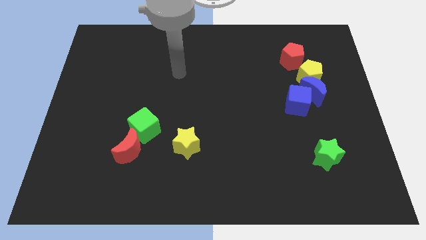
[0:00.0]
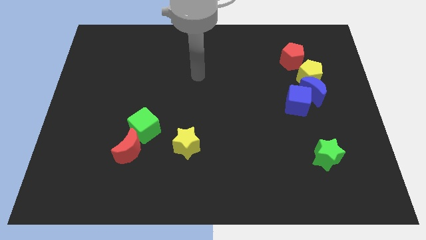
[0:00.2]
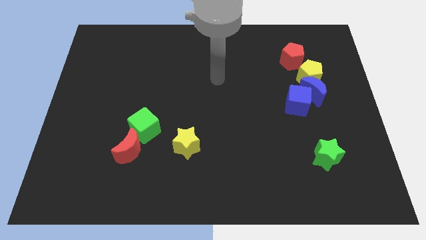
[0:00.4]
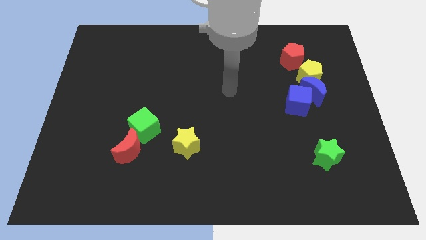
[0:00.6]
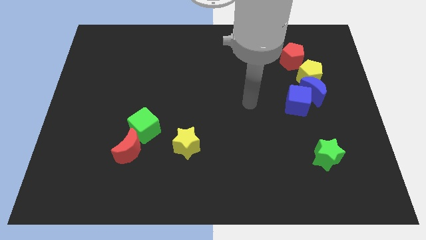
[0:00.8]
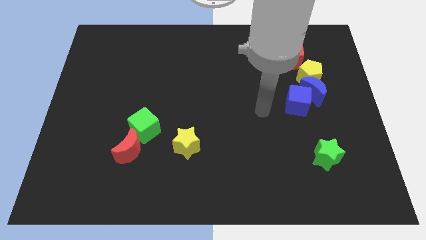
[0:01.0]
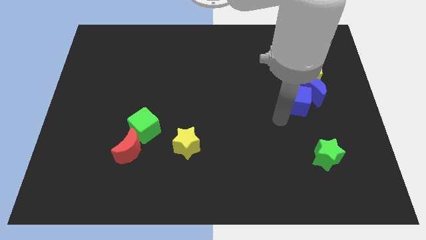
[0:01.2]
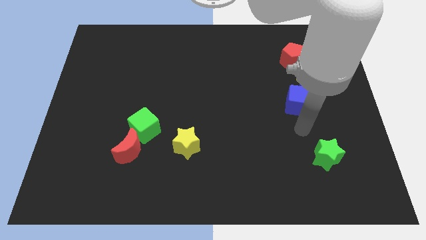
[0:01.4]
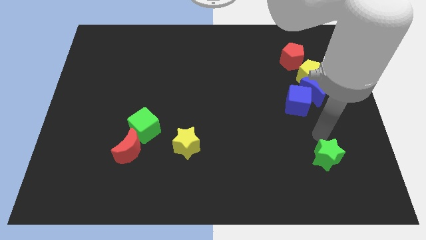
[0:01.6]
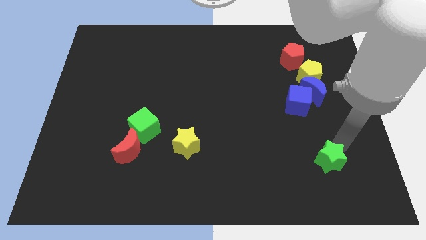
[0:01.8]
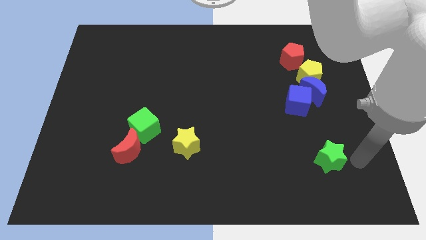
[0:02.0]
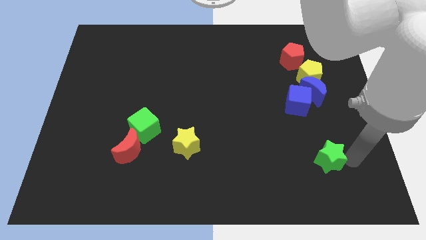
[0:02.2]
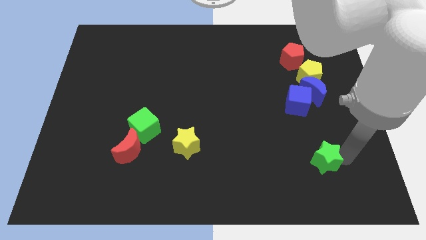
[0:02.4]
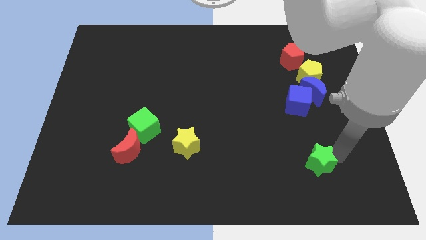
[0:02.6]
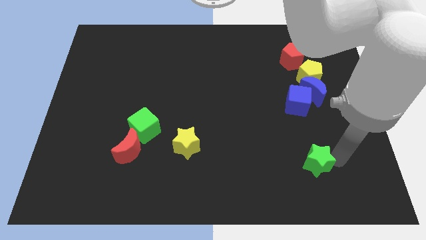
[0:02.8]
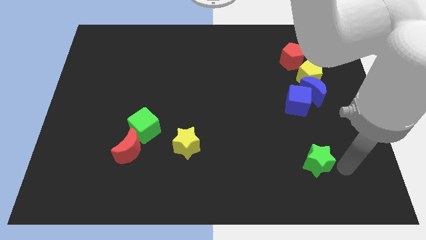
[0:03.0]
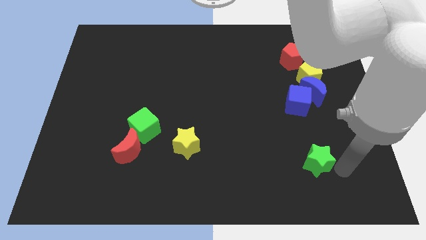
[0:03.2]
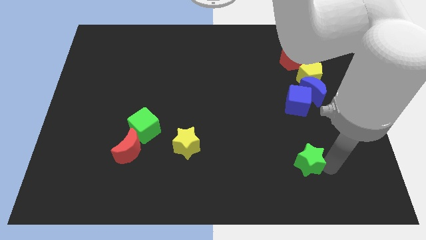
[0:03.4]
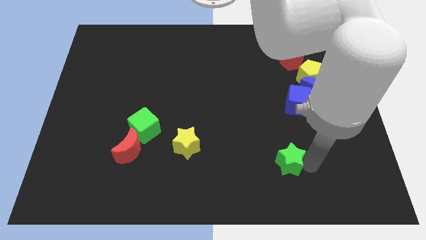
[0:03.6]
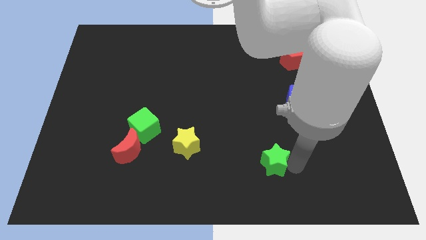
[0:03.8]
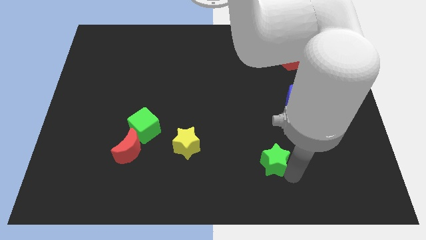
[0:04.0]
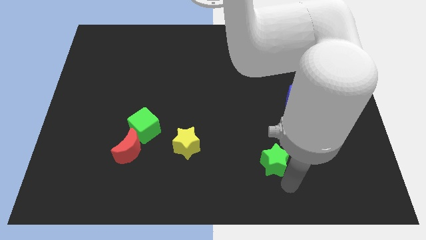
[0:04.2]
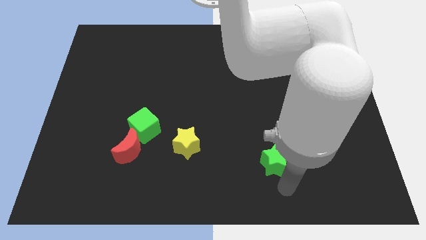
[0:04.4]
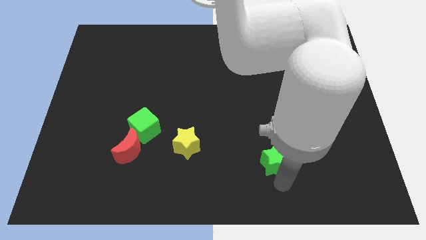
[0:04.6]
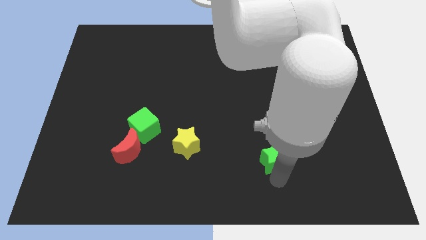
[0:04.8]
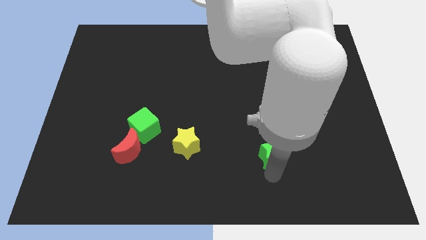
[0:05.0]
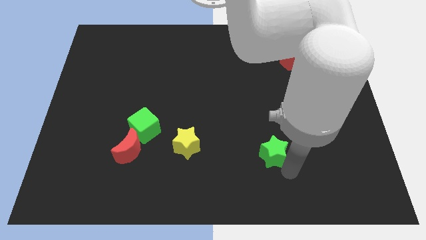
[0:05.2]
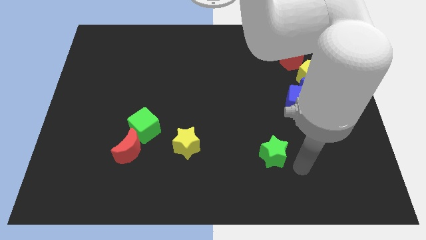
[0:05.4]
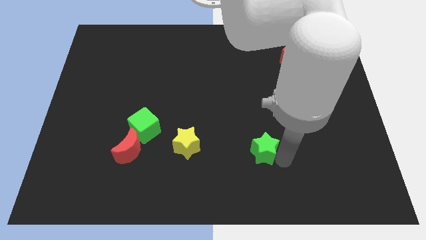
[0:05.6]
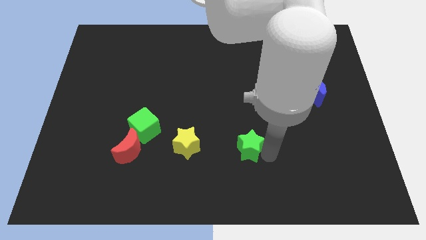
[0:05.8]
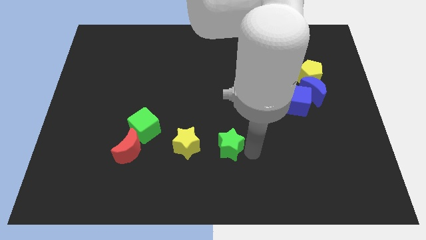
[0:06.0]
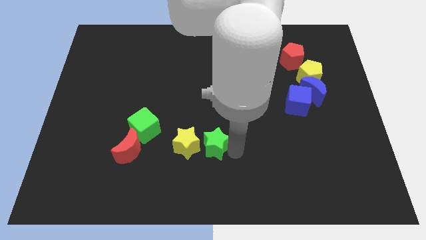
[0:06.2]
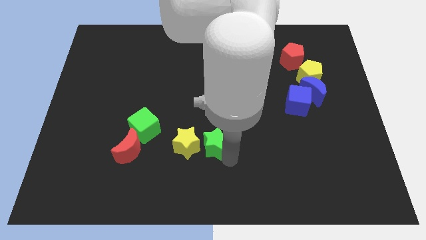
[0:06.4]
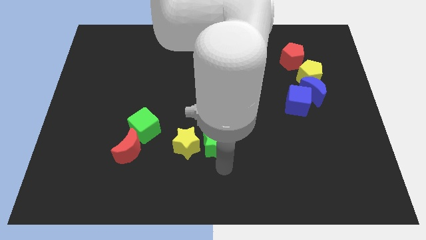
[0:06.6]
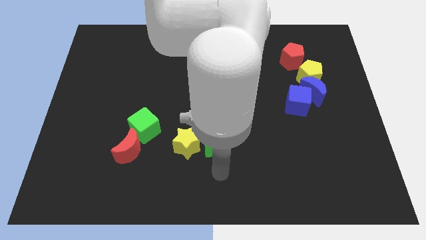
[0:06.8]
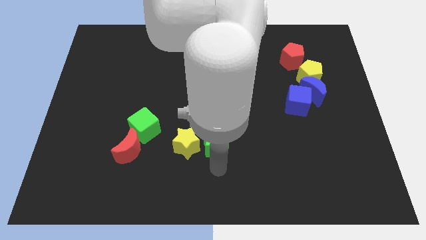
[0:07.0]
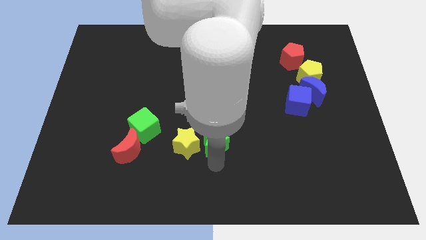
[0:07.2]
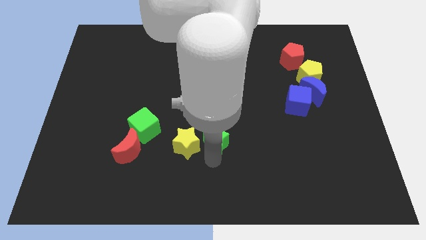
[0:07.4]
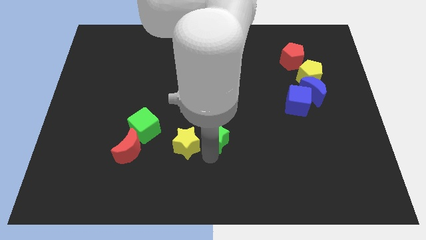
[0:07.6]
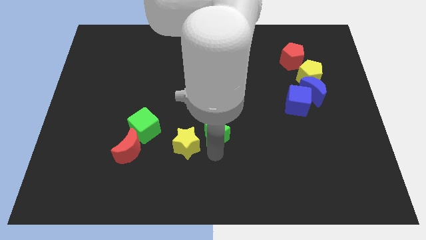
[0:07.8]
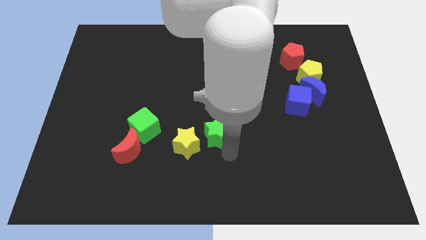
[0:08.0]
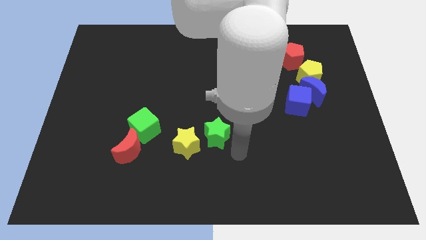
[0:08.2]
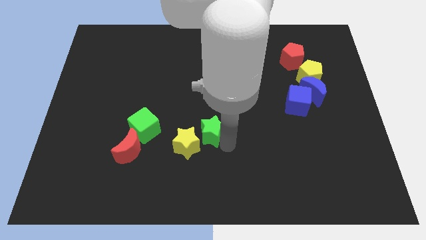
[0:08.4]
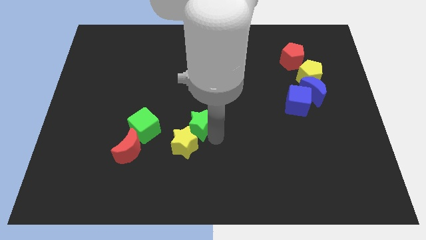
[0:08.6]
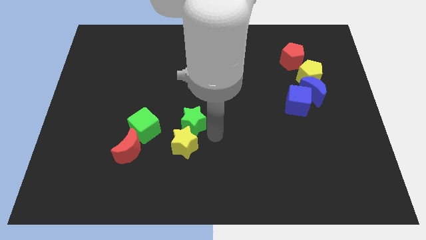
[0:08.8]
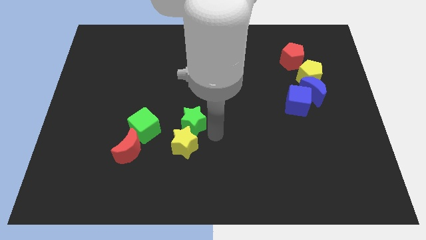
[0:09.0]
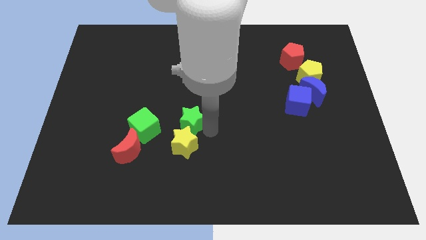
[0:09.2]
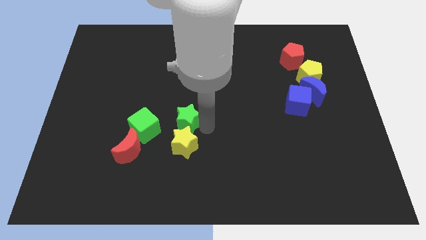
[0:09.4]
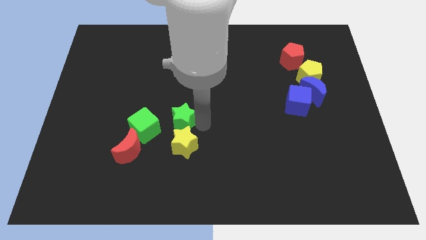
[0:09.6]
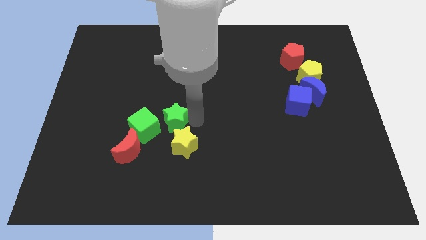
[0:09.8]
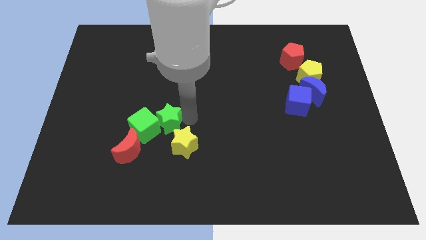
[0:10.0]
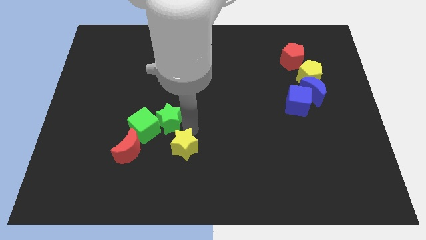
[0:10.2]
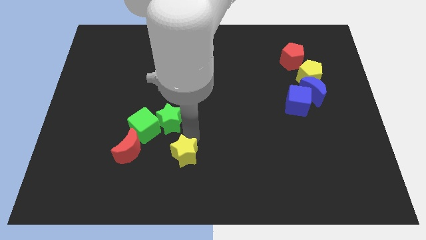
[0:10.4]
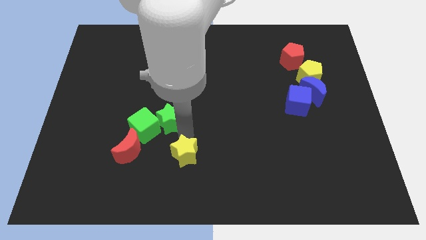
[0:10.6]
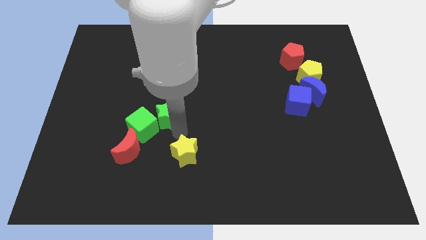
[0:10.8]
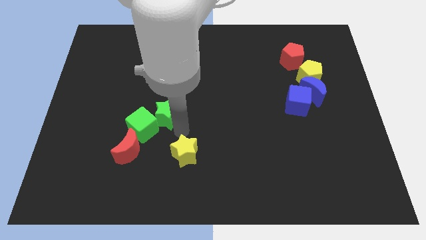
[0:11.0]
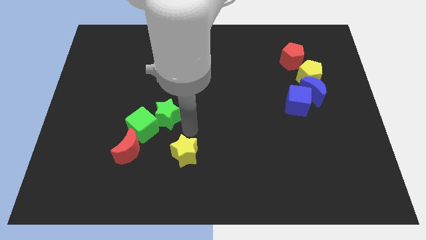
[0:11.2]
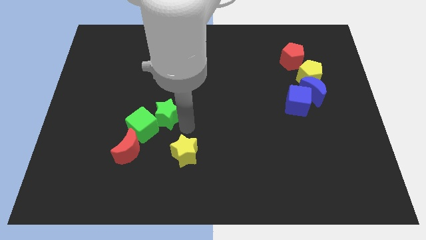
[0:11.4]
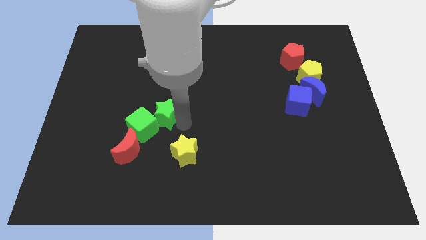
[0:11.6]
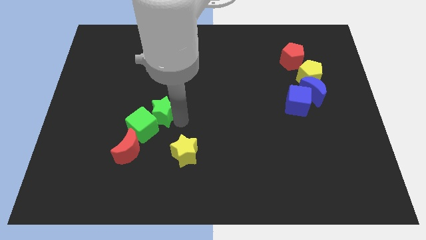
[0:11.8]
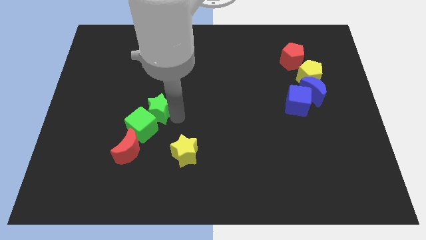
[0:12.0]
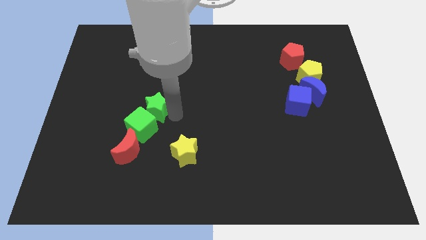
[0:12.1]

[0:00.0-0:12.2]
push the green star to the top side of the red moon

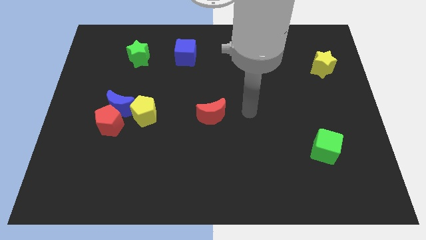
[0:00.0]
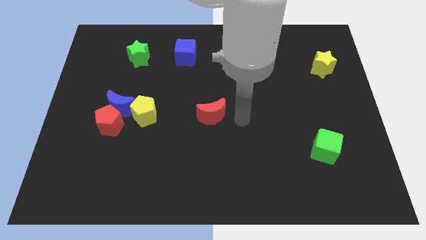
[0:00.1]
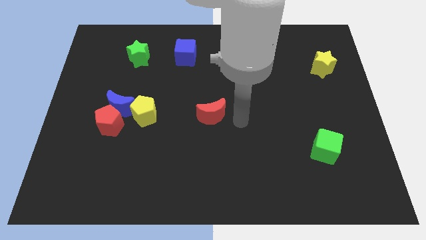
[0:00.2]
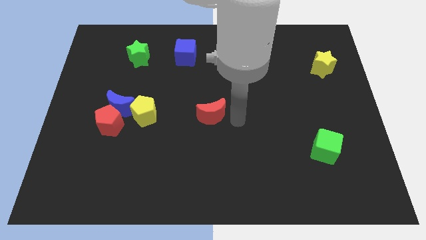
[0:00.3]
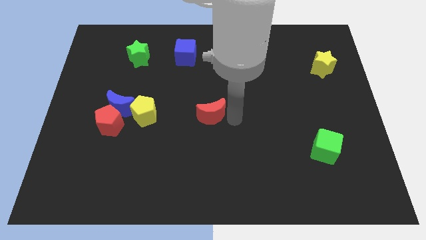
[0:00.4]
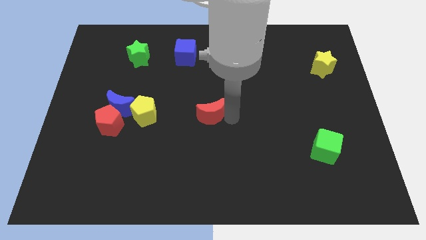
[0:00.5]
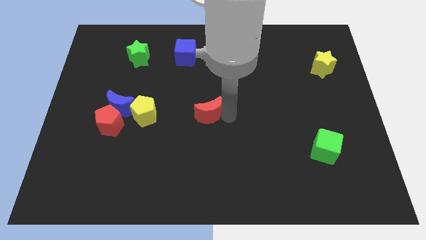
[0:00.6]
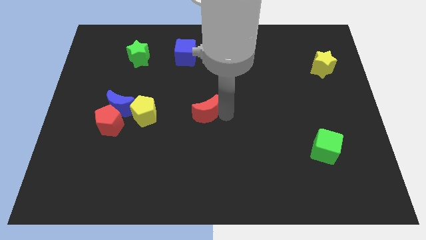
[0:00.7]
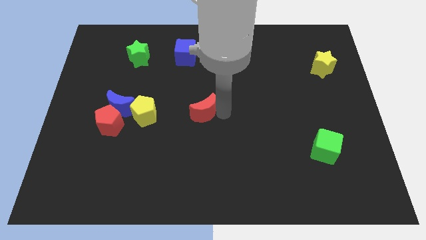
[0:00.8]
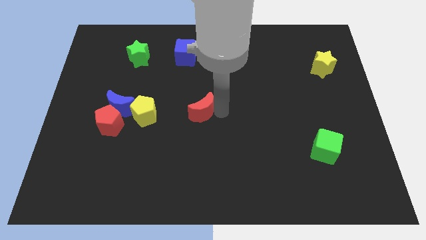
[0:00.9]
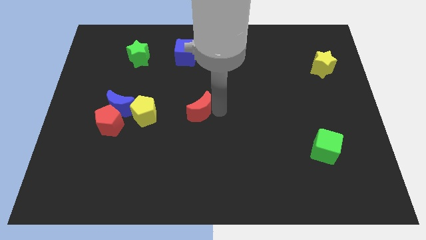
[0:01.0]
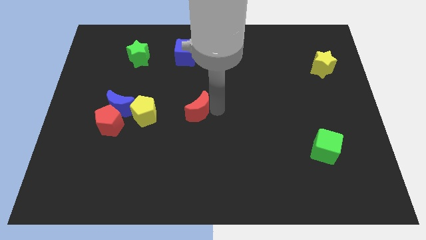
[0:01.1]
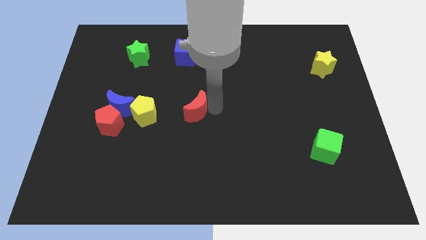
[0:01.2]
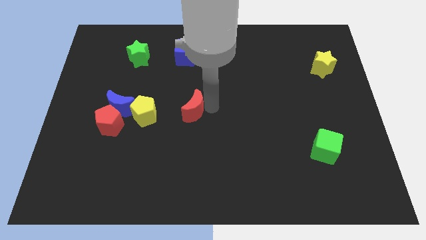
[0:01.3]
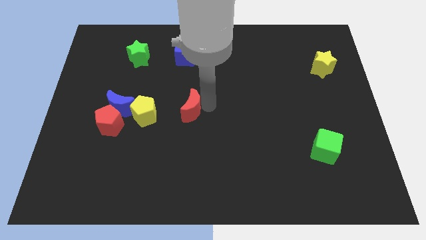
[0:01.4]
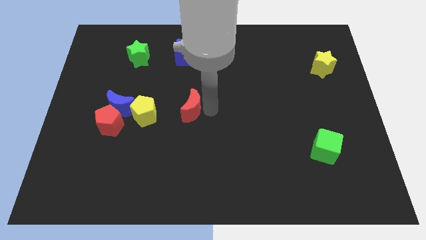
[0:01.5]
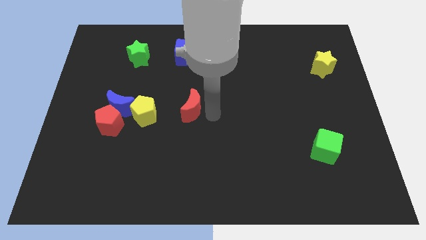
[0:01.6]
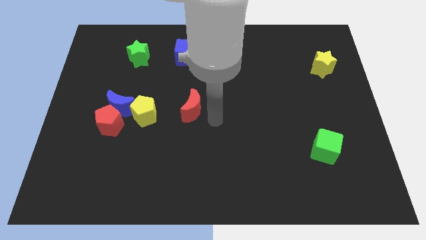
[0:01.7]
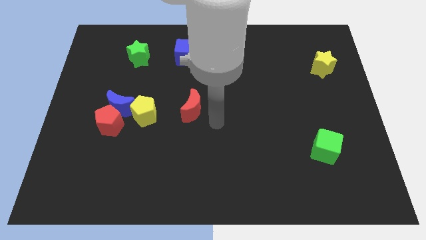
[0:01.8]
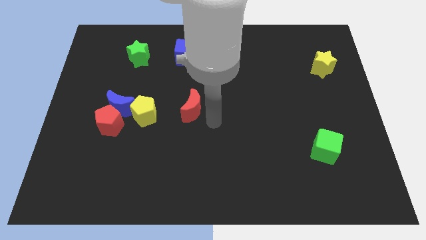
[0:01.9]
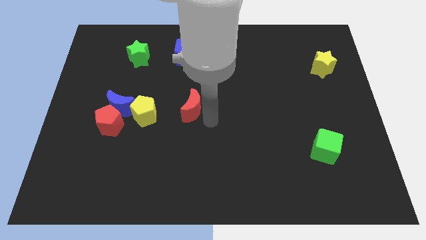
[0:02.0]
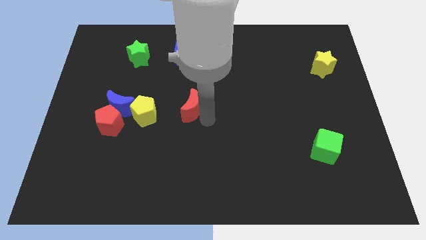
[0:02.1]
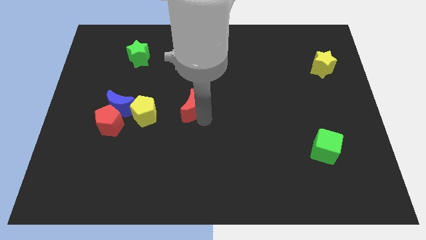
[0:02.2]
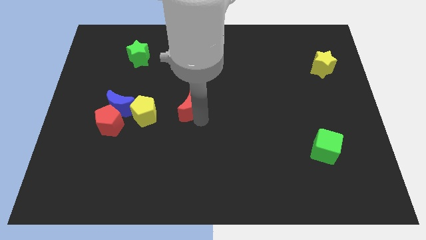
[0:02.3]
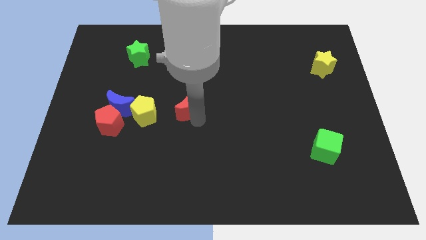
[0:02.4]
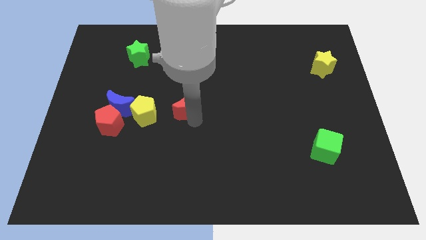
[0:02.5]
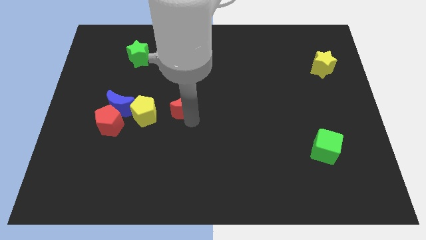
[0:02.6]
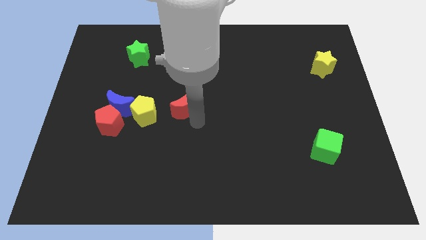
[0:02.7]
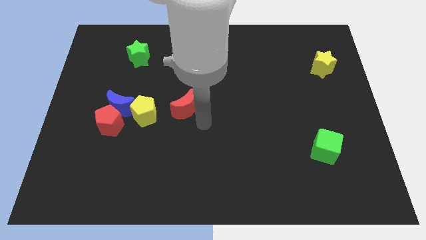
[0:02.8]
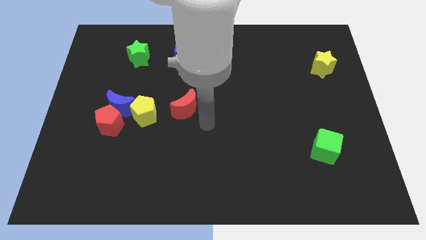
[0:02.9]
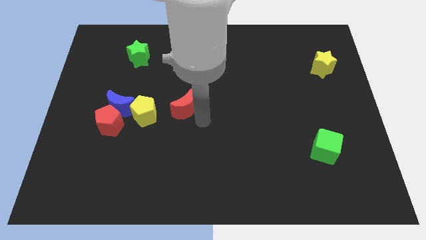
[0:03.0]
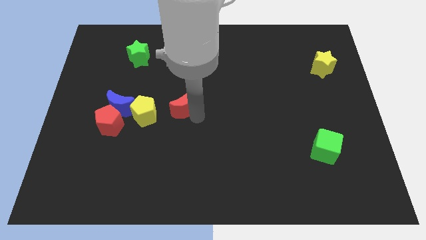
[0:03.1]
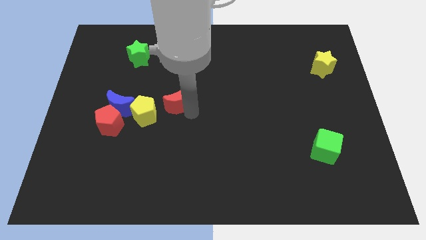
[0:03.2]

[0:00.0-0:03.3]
push the red moon diagonally up and to the right of the yellow pentagon
